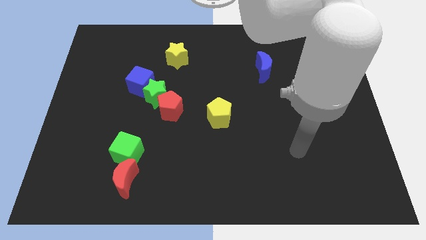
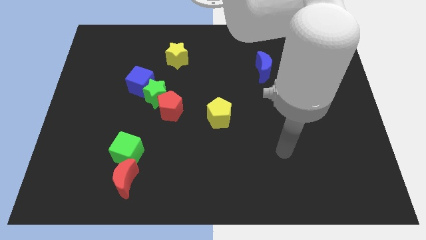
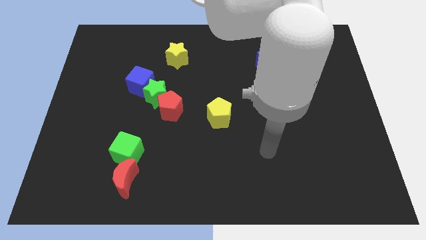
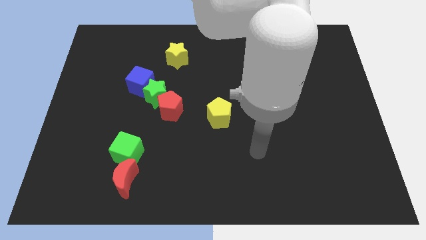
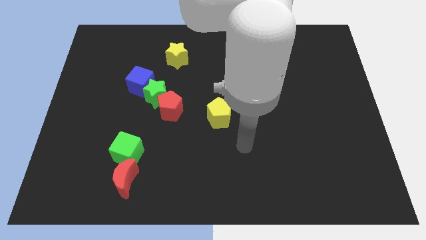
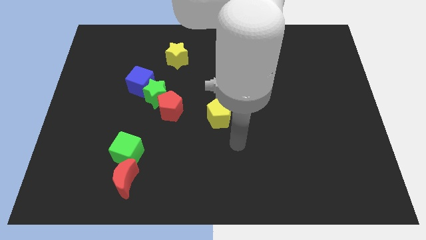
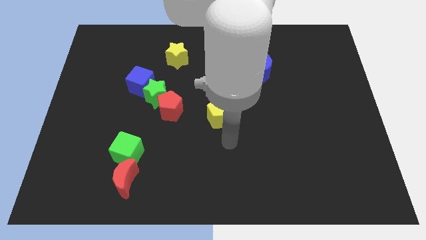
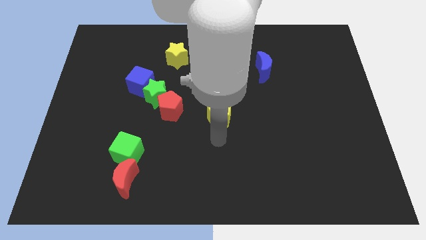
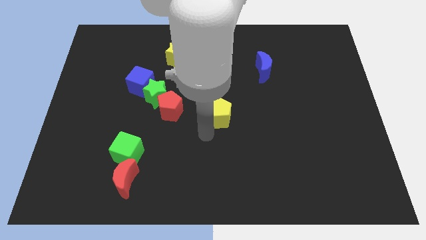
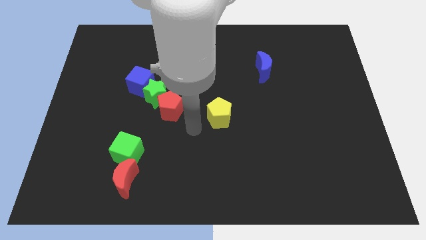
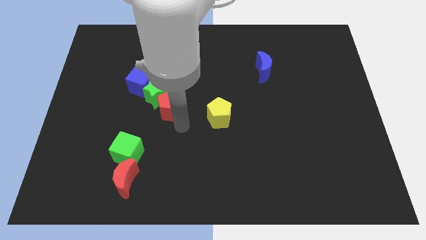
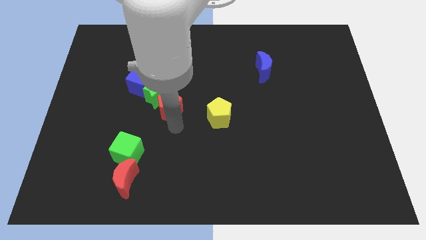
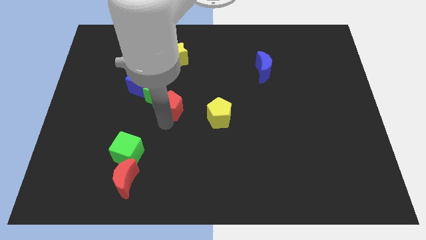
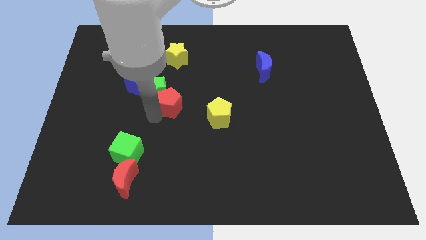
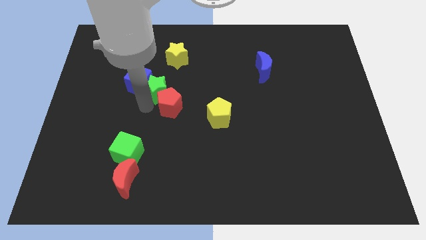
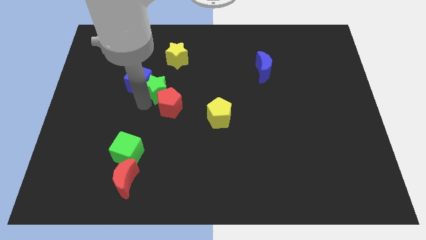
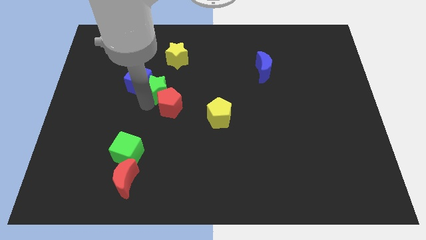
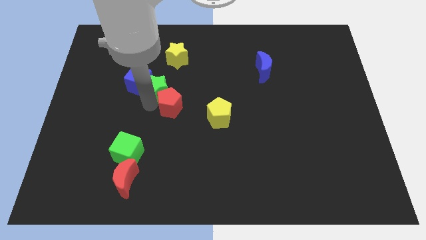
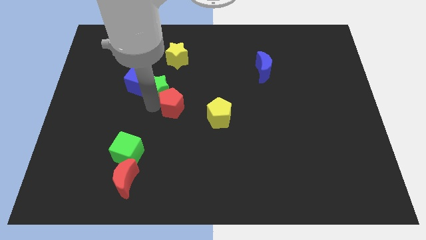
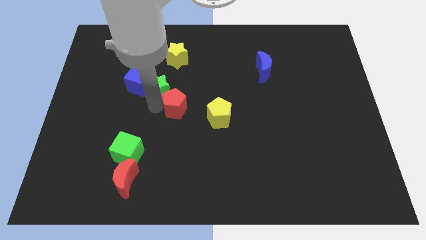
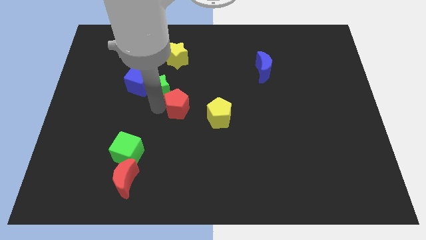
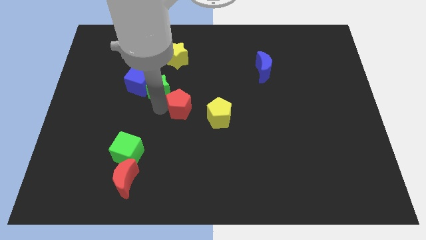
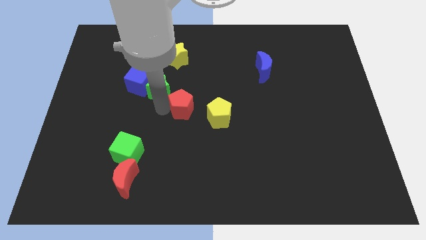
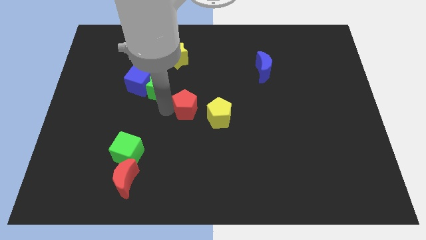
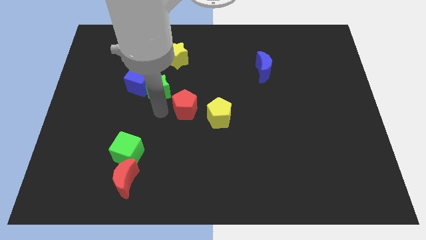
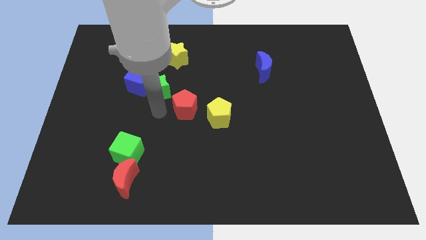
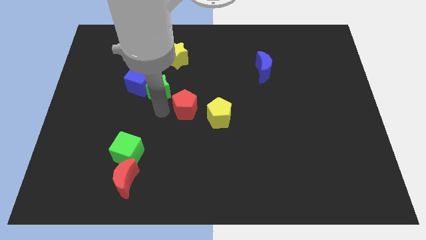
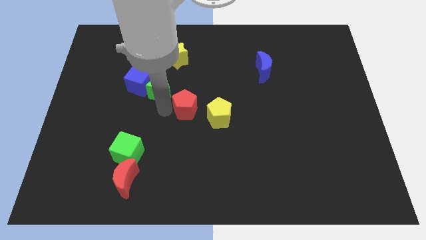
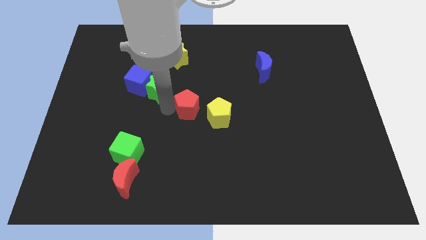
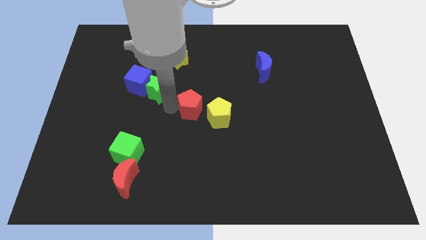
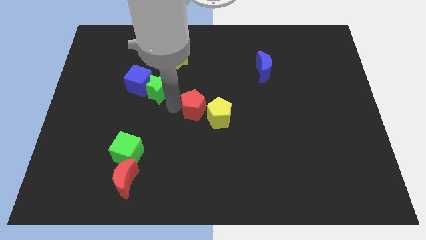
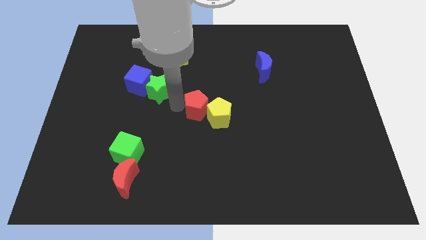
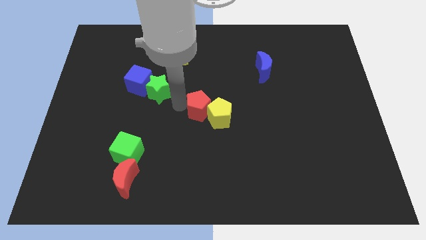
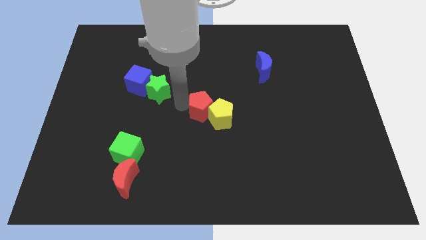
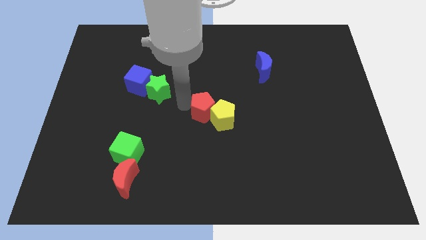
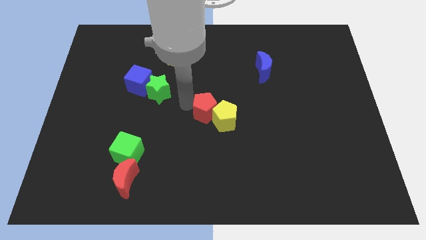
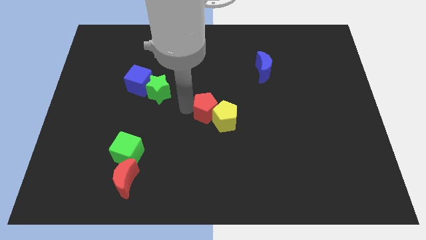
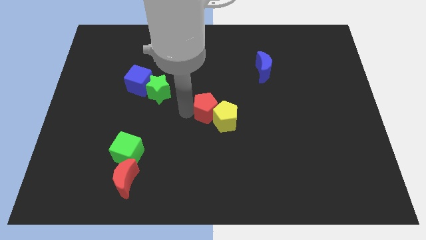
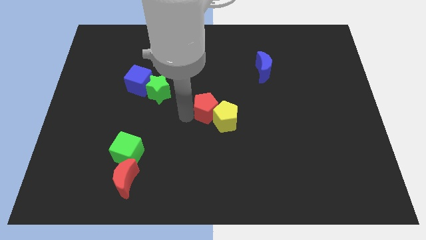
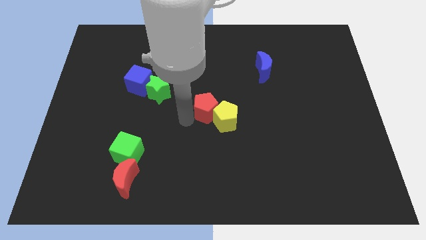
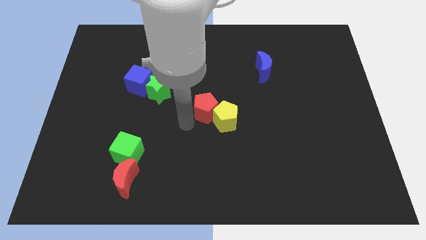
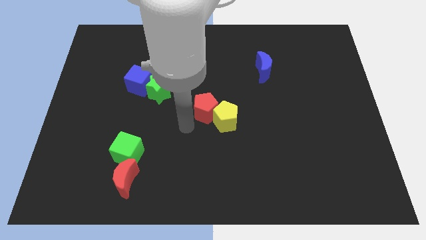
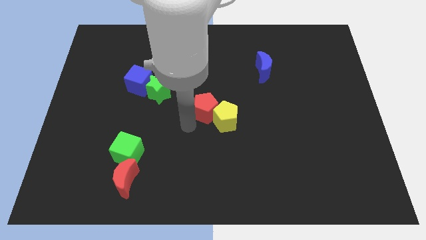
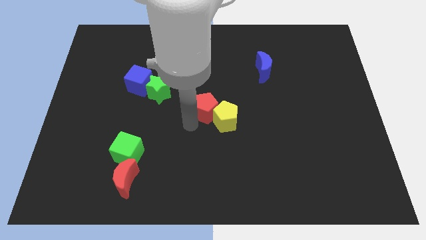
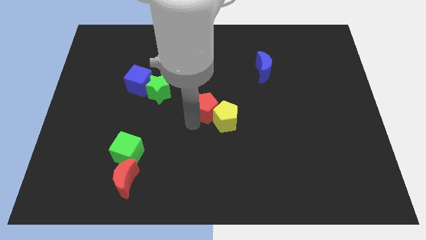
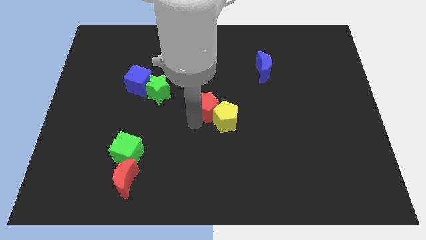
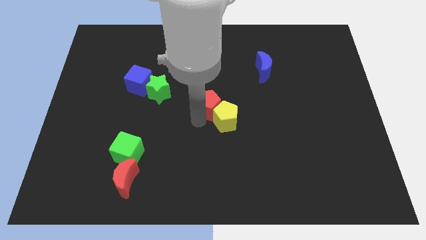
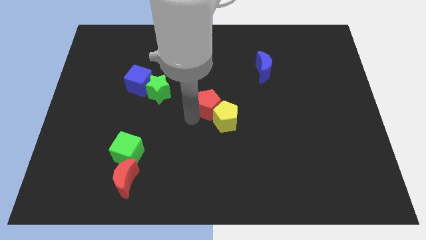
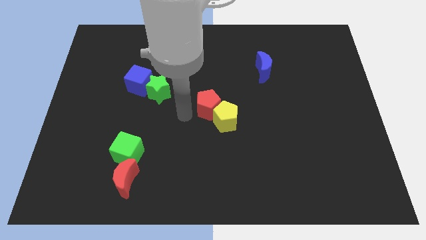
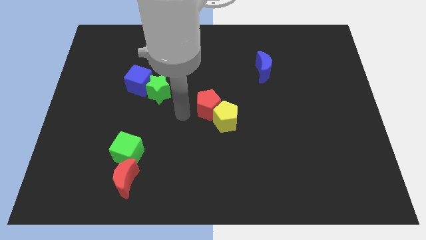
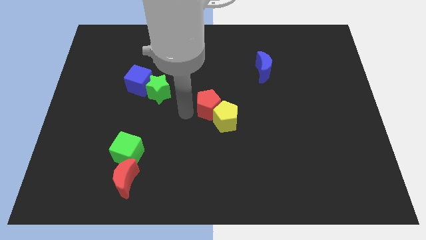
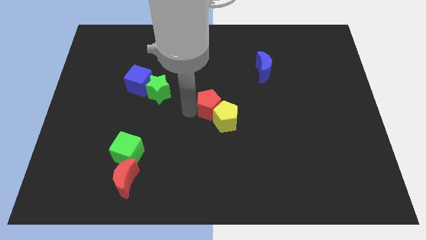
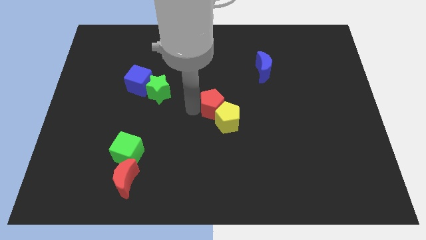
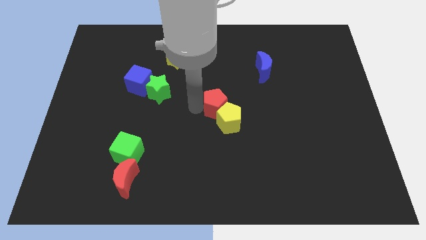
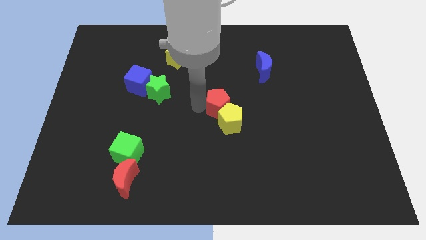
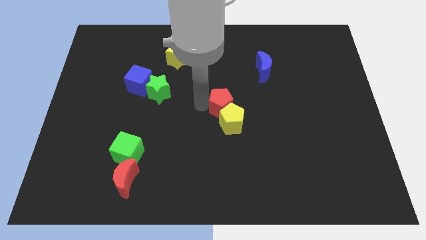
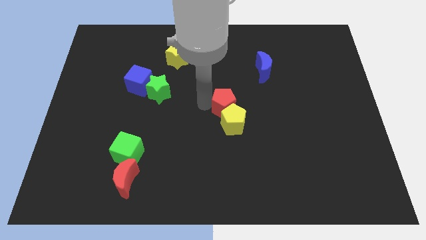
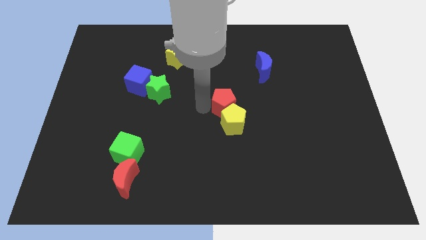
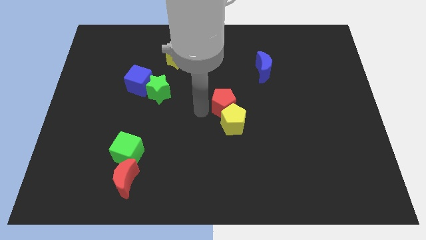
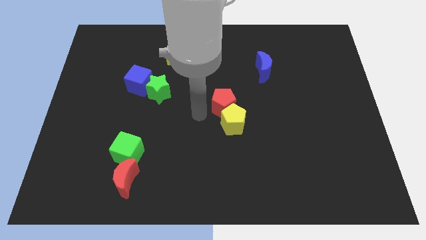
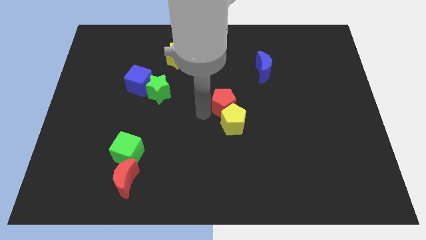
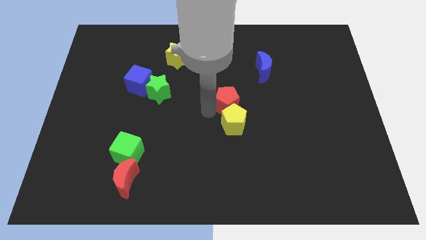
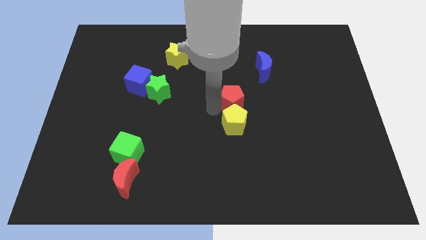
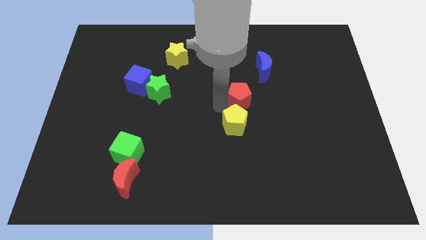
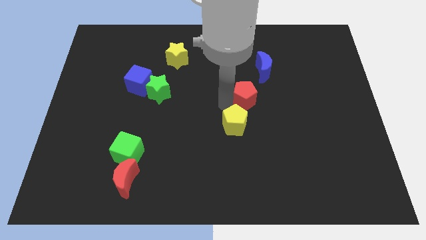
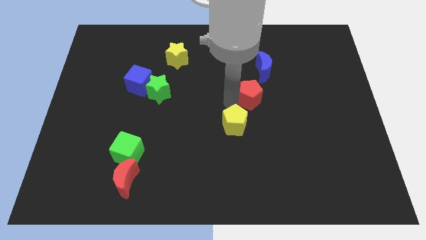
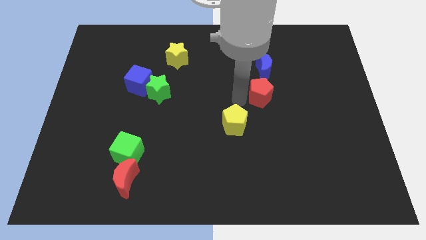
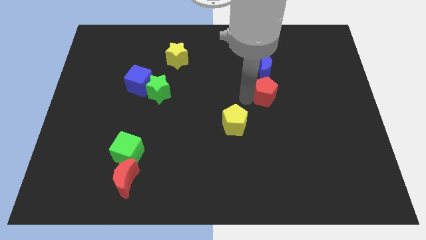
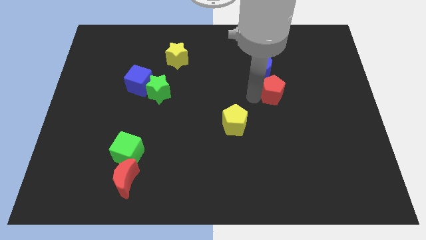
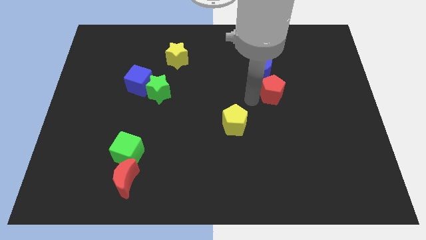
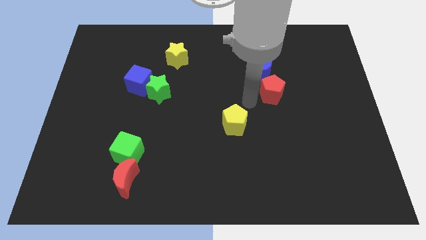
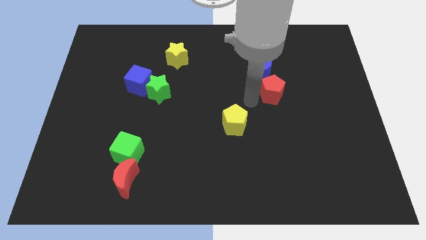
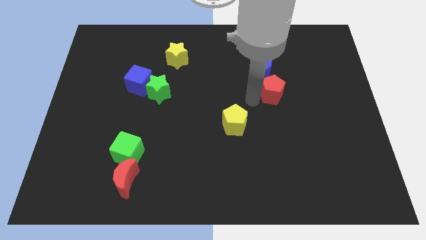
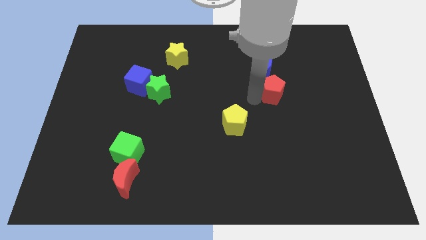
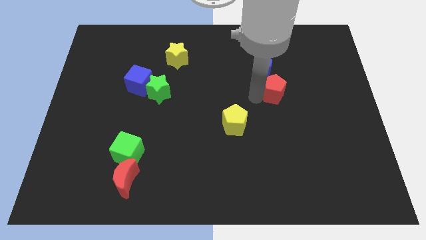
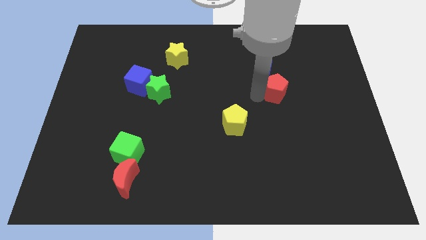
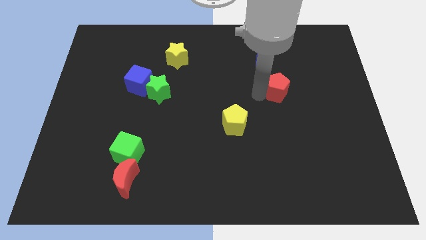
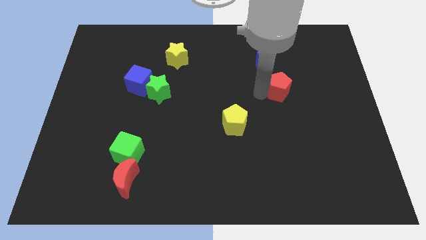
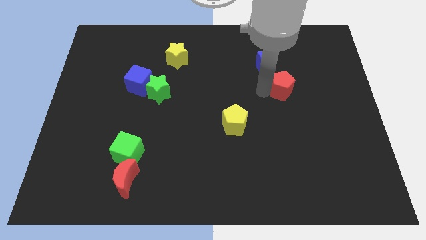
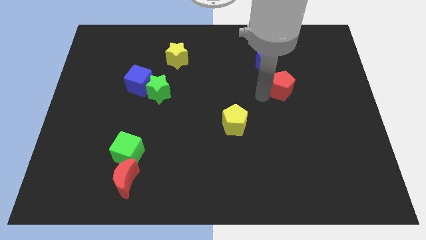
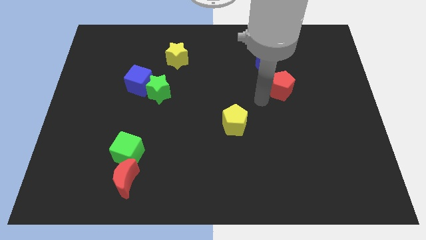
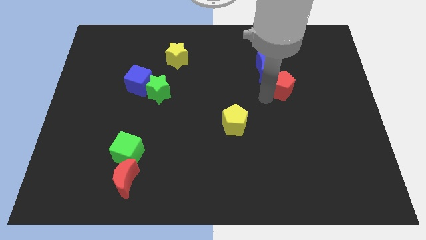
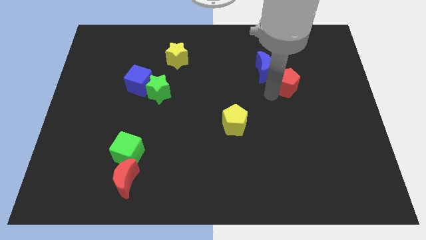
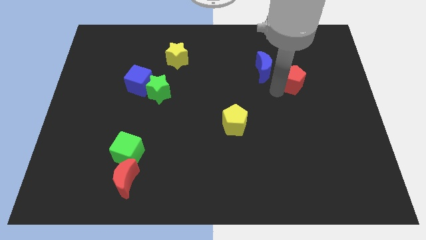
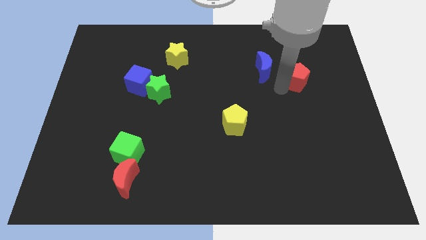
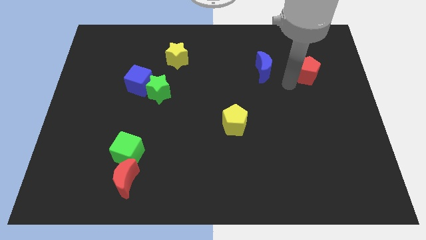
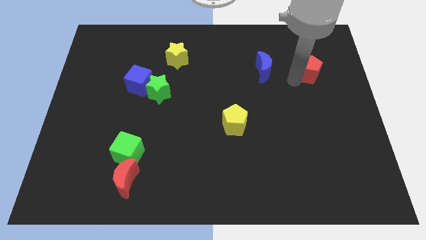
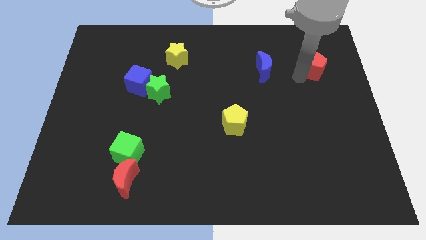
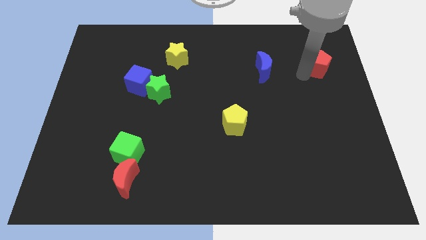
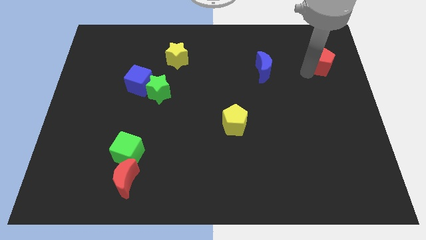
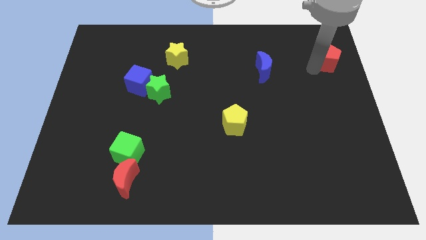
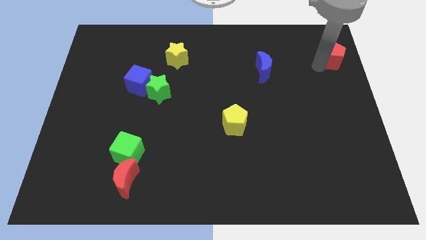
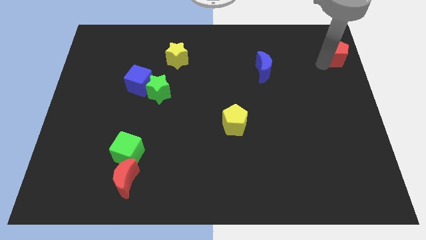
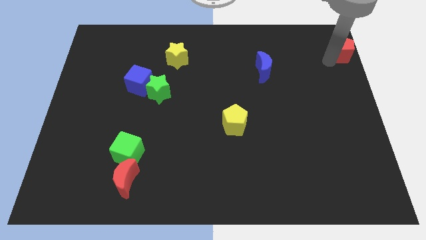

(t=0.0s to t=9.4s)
move the red pentagon to the top right
